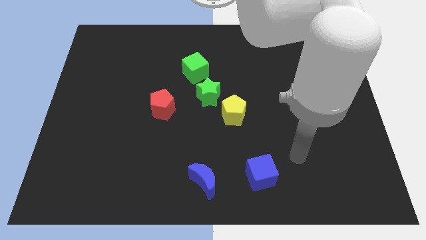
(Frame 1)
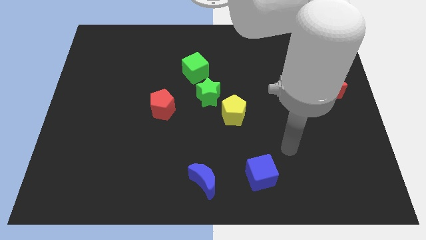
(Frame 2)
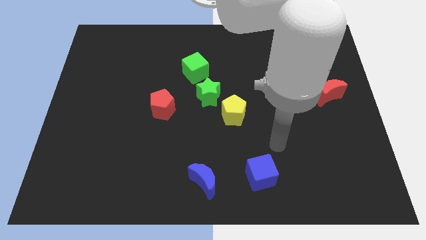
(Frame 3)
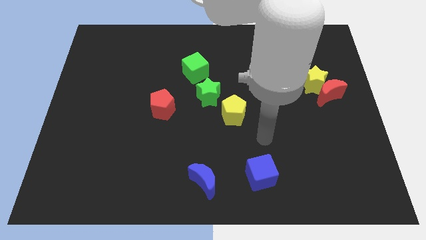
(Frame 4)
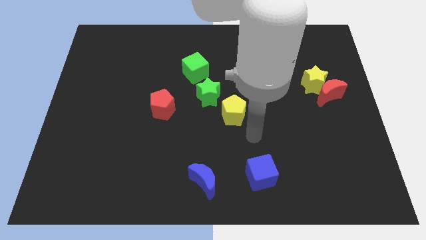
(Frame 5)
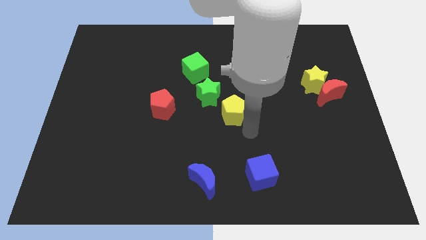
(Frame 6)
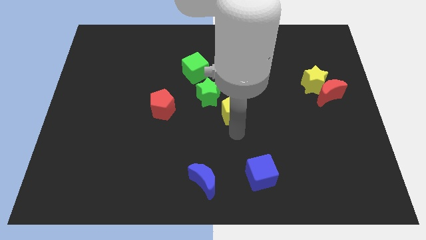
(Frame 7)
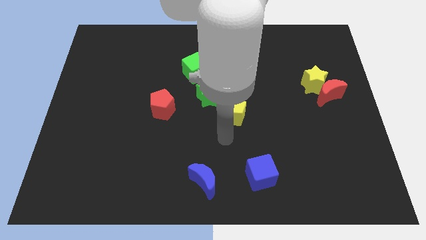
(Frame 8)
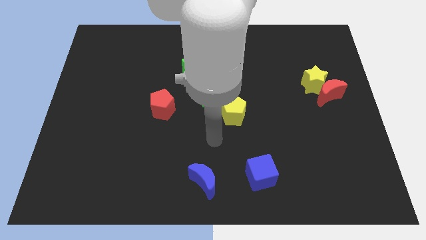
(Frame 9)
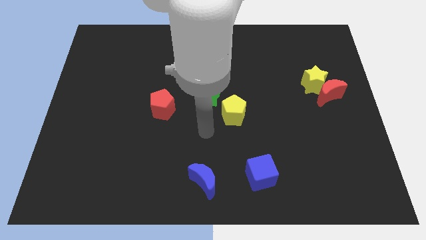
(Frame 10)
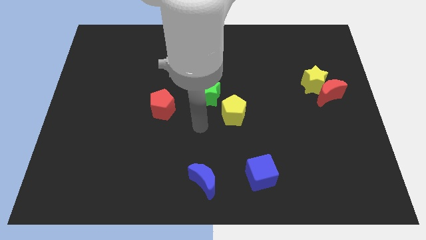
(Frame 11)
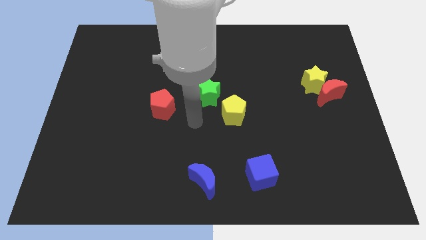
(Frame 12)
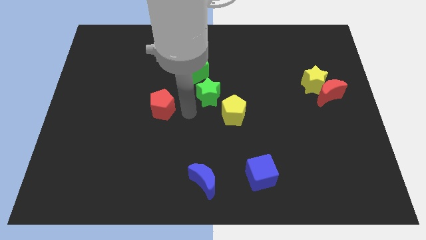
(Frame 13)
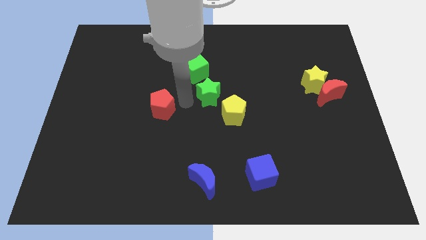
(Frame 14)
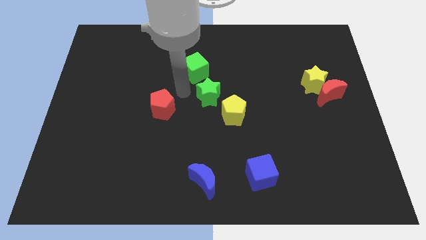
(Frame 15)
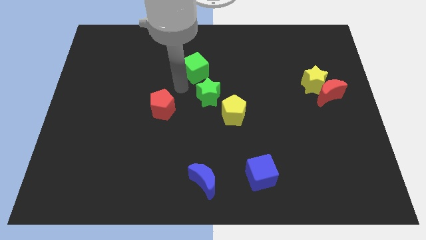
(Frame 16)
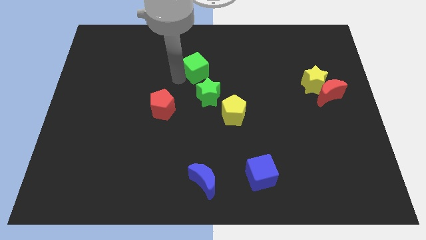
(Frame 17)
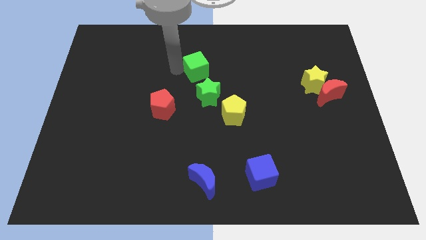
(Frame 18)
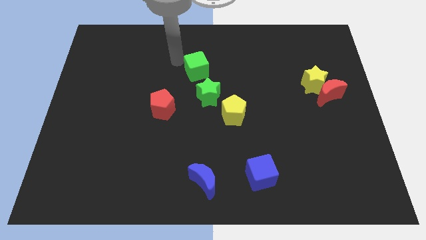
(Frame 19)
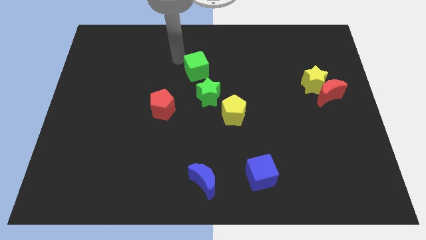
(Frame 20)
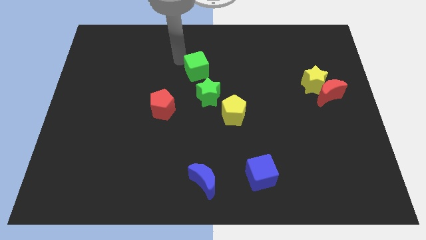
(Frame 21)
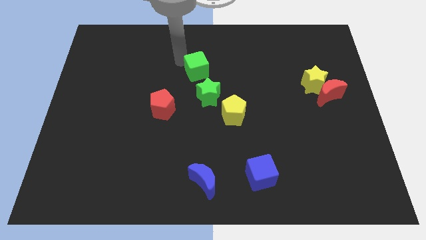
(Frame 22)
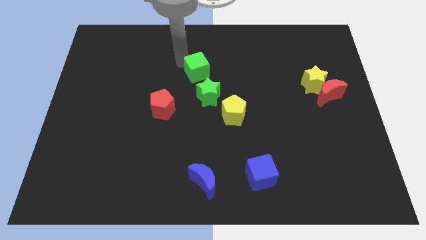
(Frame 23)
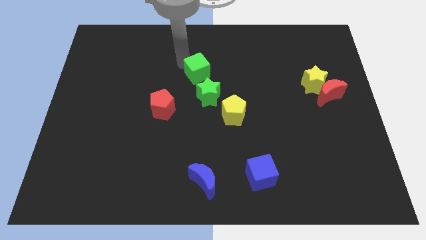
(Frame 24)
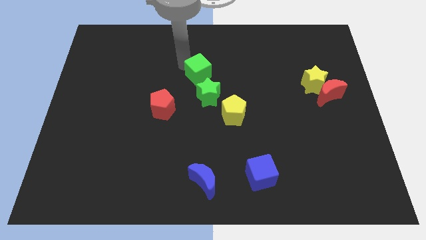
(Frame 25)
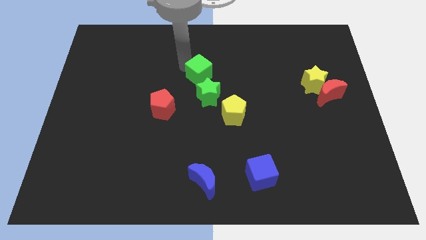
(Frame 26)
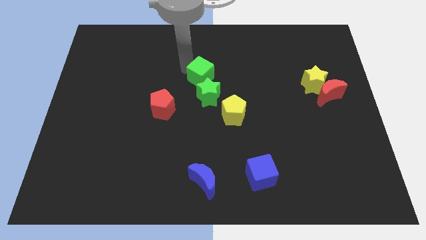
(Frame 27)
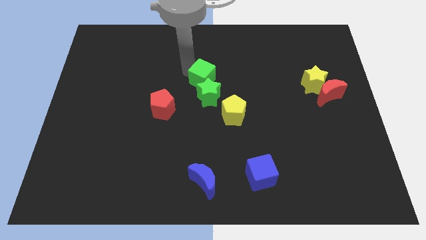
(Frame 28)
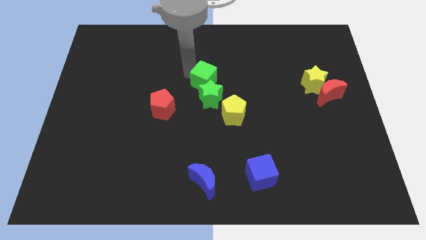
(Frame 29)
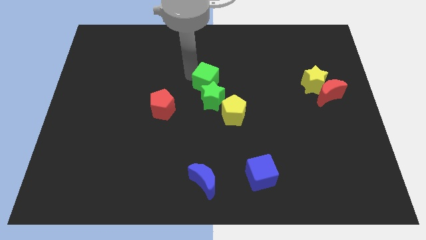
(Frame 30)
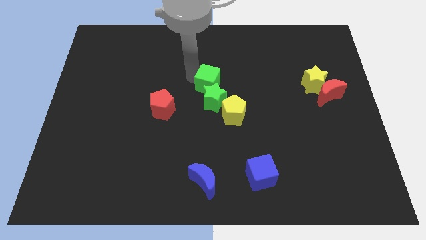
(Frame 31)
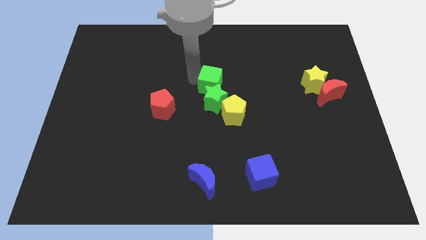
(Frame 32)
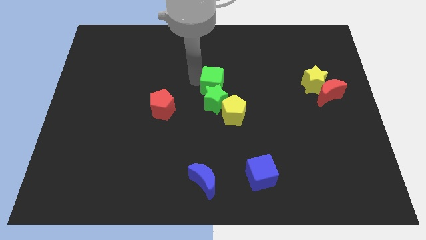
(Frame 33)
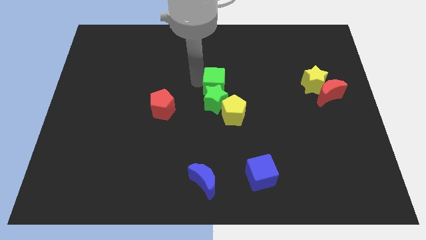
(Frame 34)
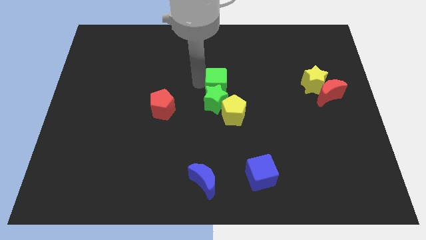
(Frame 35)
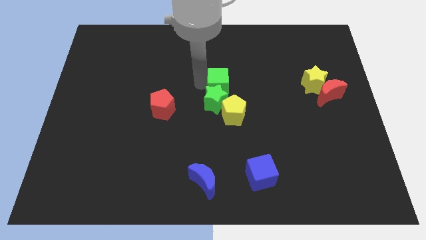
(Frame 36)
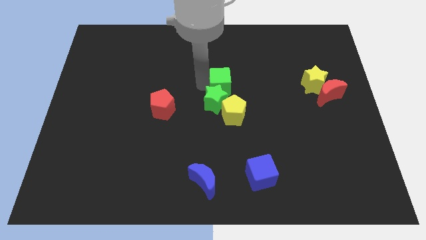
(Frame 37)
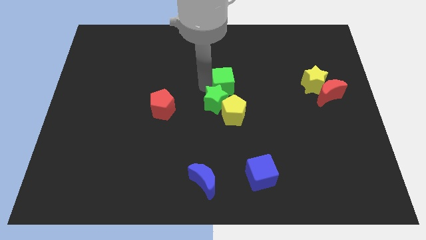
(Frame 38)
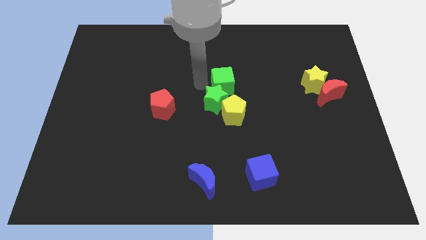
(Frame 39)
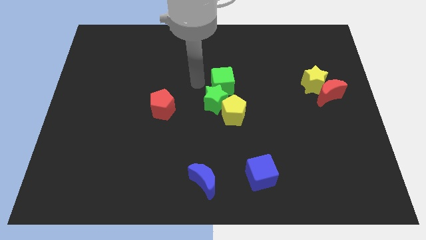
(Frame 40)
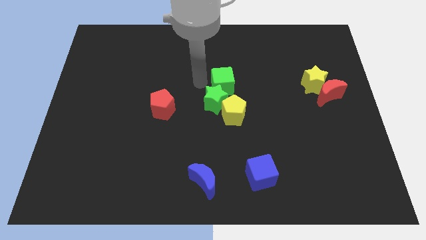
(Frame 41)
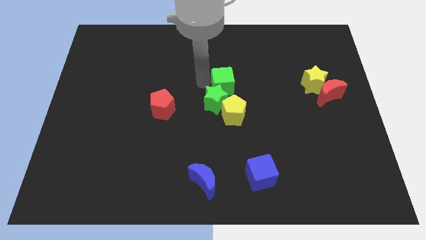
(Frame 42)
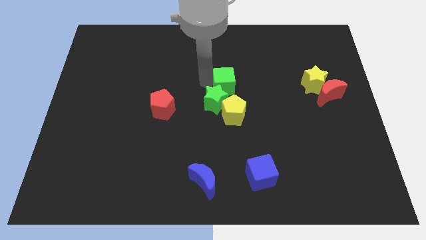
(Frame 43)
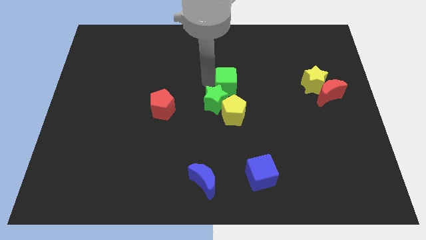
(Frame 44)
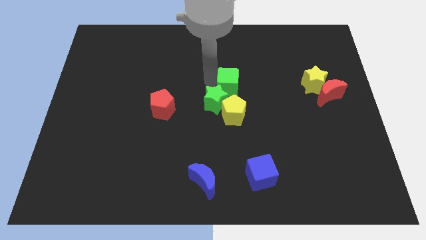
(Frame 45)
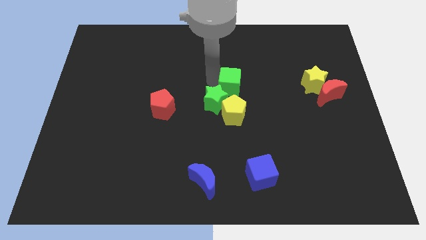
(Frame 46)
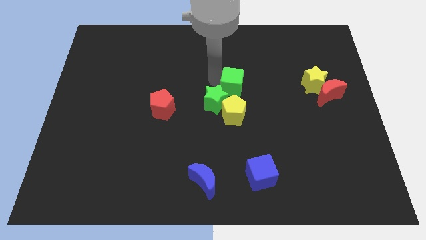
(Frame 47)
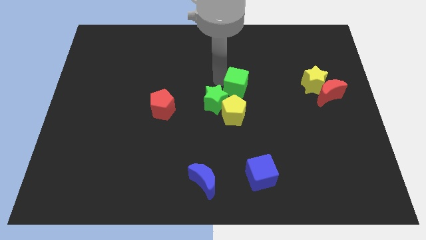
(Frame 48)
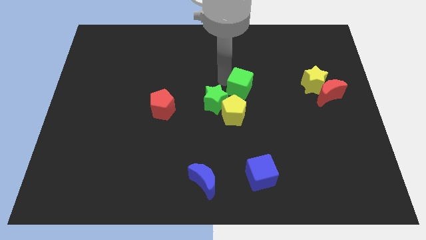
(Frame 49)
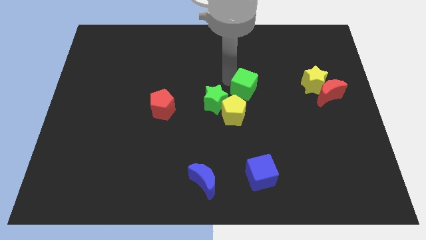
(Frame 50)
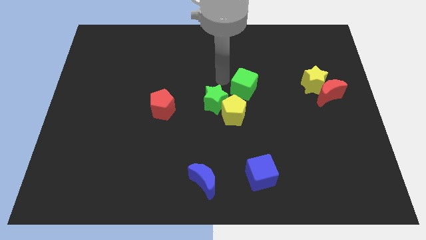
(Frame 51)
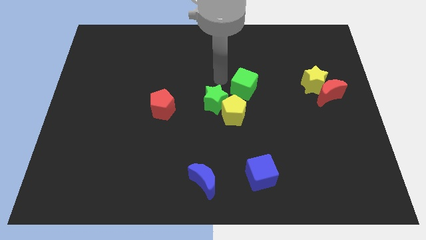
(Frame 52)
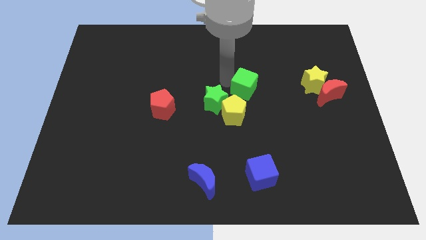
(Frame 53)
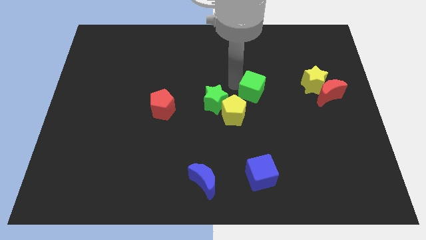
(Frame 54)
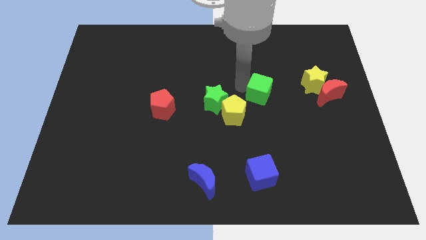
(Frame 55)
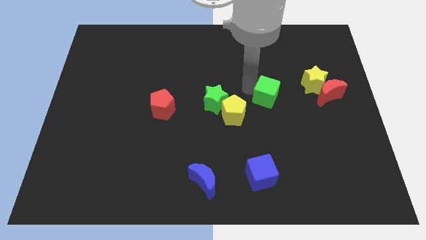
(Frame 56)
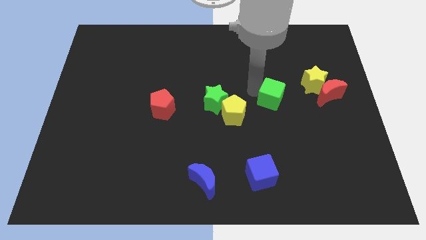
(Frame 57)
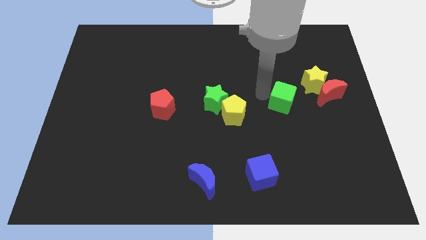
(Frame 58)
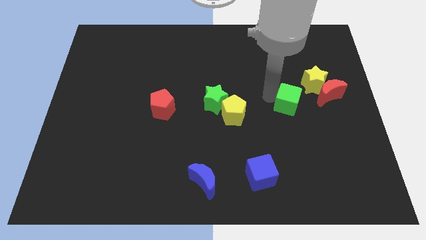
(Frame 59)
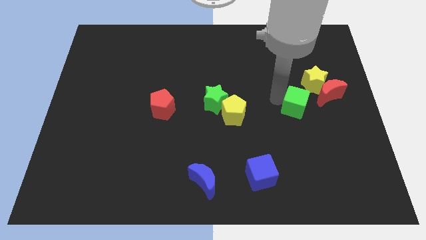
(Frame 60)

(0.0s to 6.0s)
slide the green cube to the bottom left side of the red moon
